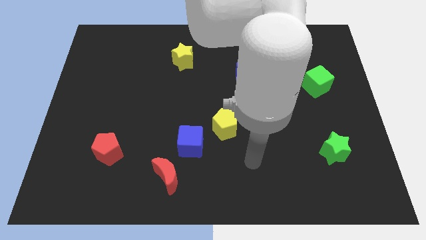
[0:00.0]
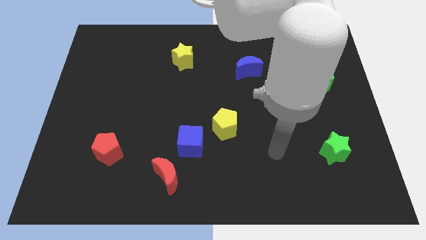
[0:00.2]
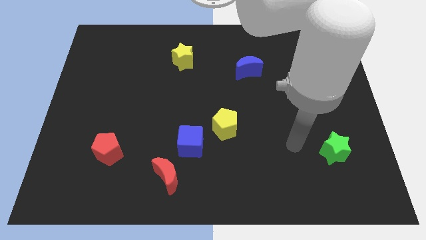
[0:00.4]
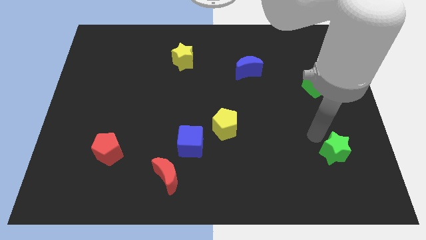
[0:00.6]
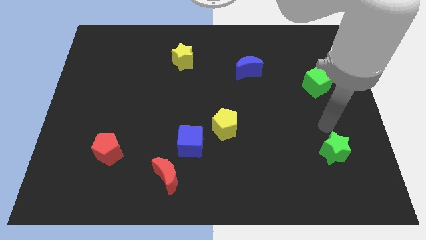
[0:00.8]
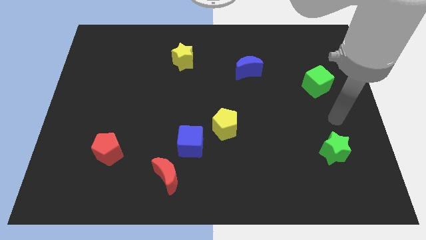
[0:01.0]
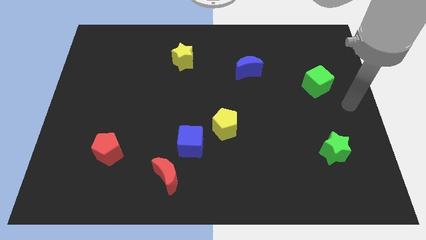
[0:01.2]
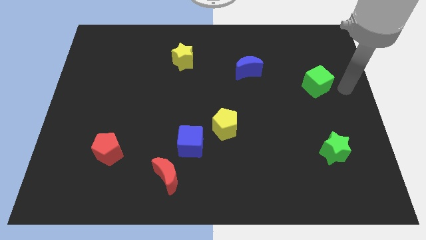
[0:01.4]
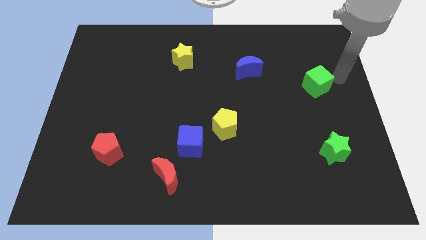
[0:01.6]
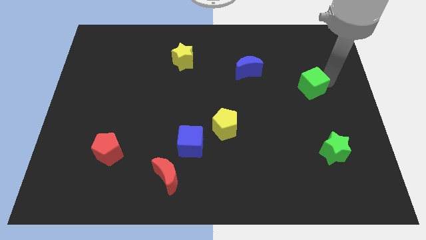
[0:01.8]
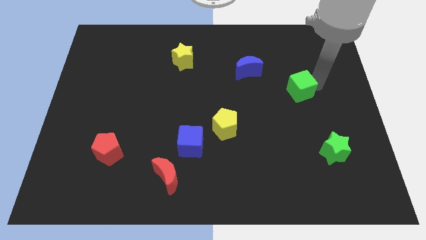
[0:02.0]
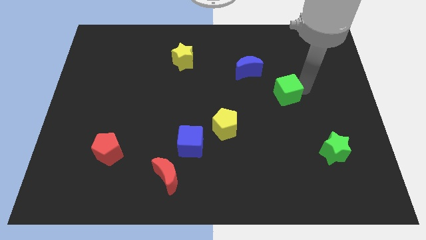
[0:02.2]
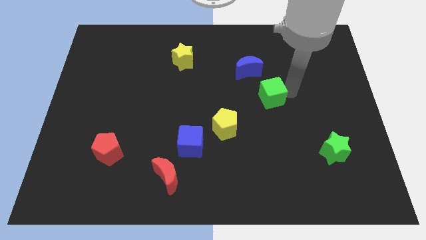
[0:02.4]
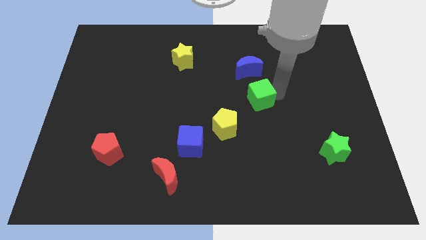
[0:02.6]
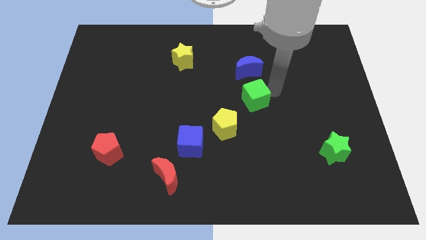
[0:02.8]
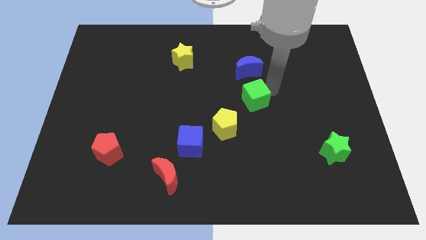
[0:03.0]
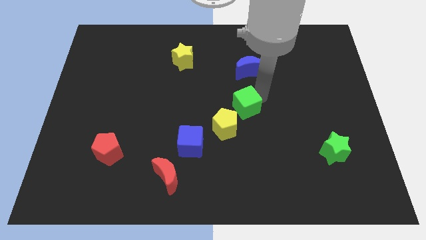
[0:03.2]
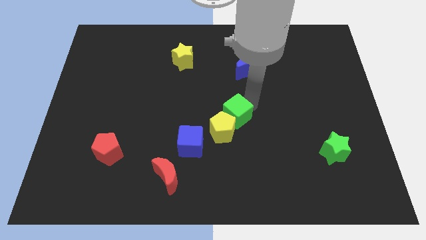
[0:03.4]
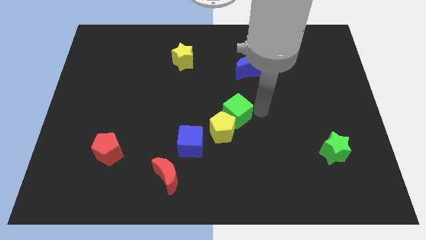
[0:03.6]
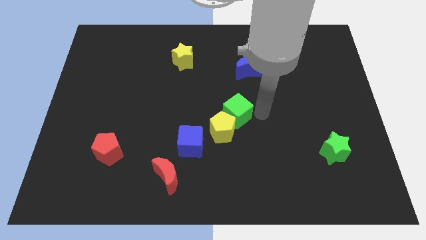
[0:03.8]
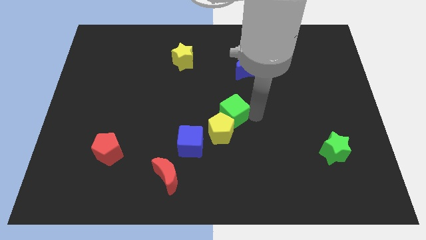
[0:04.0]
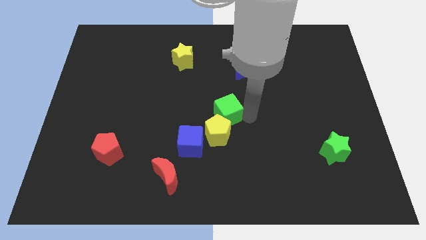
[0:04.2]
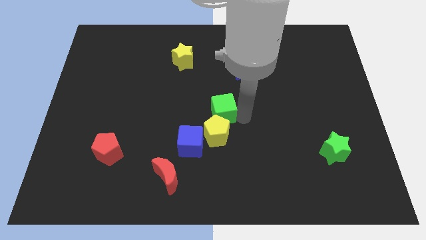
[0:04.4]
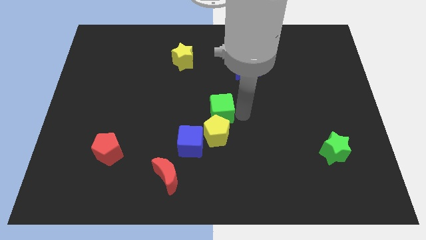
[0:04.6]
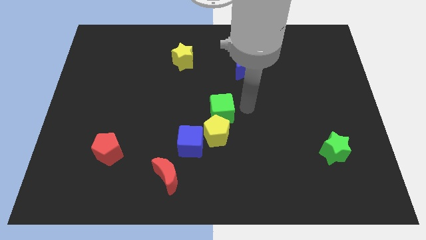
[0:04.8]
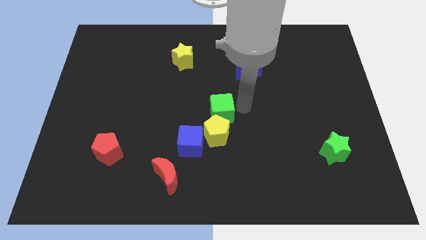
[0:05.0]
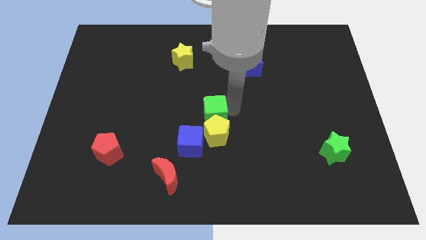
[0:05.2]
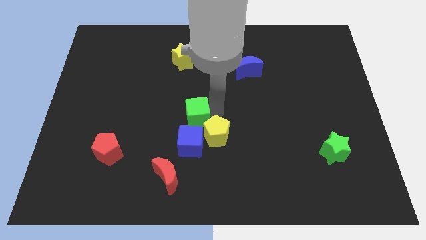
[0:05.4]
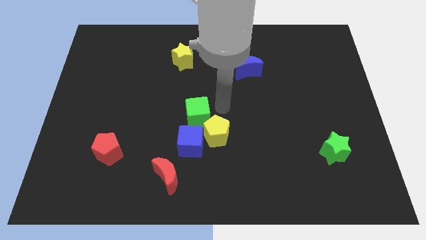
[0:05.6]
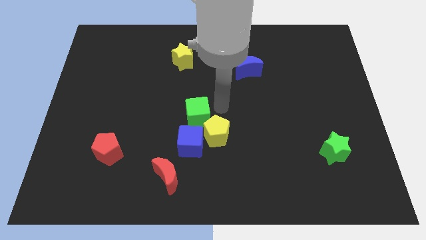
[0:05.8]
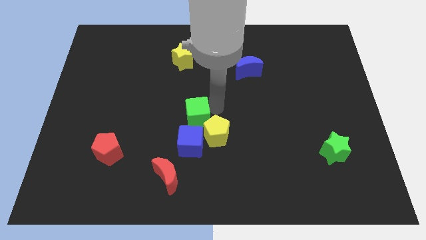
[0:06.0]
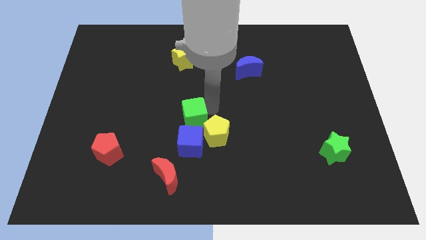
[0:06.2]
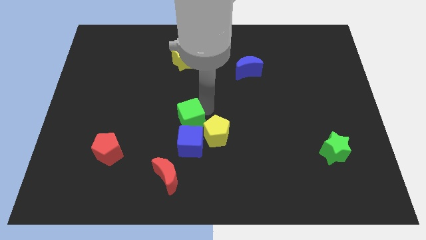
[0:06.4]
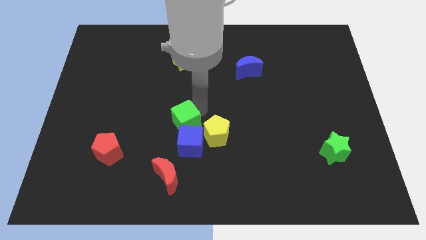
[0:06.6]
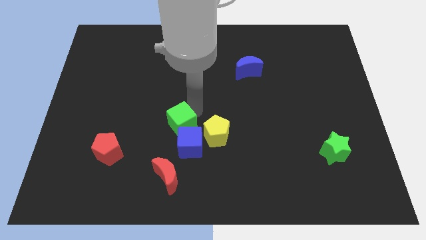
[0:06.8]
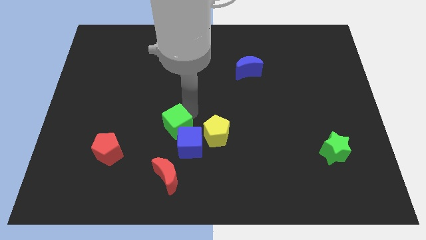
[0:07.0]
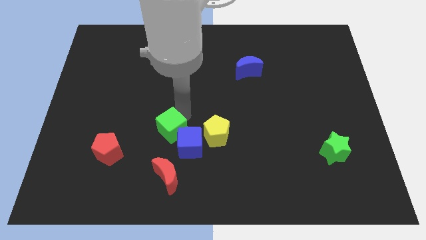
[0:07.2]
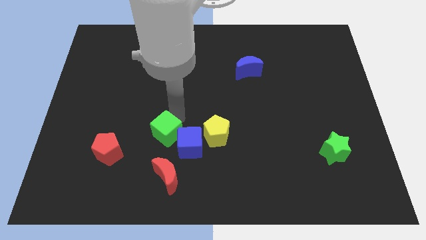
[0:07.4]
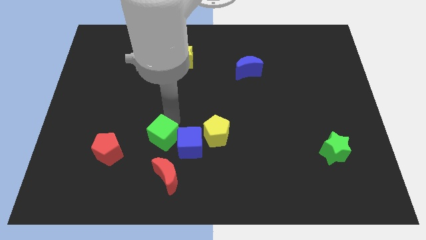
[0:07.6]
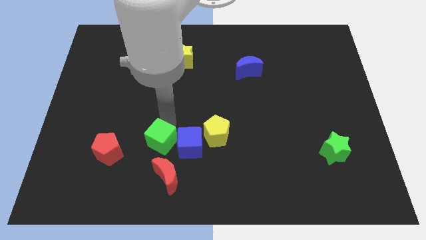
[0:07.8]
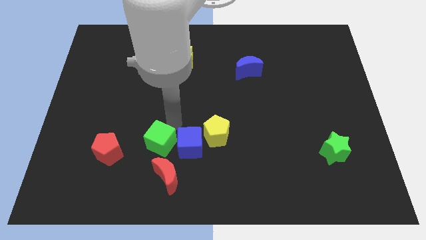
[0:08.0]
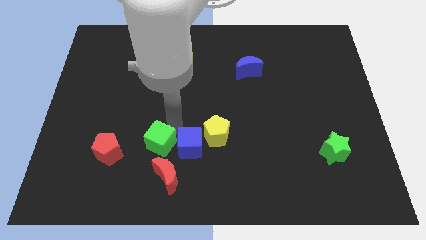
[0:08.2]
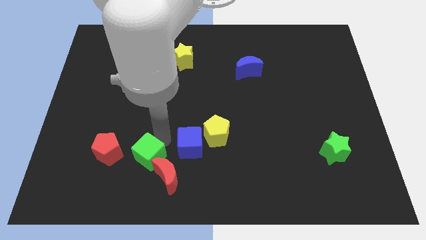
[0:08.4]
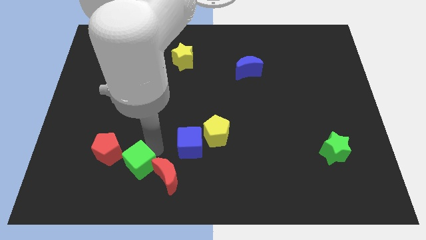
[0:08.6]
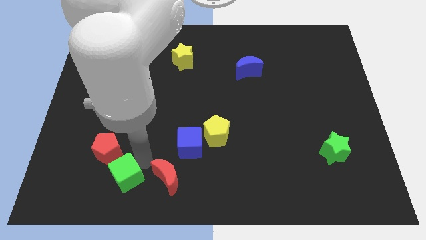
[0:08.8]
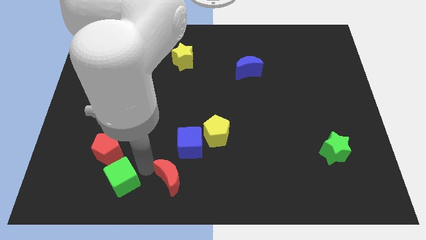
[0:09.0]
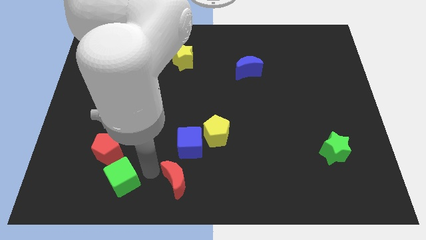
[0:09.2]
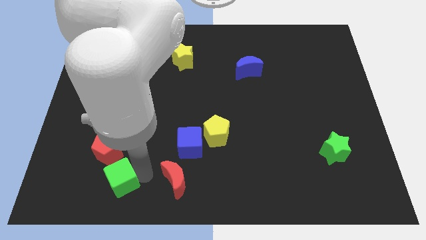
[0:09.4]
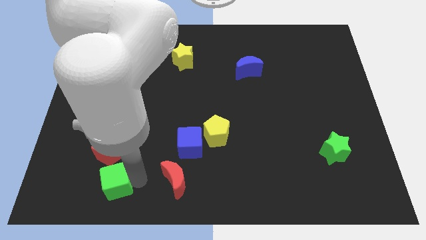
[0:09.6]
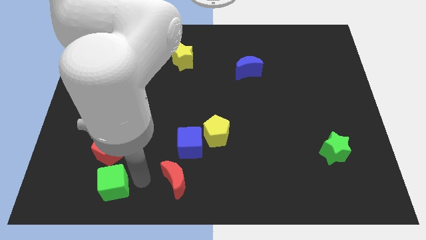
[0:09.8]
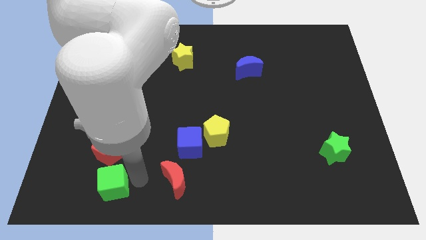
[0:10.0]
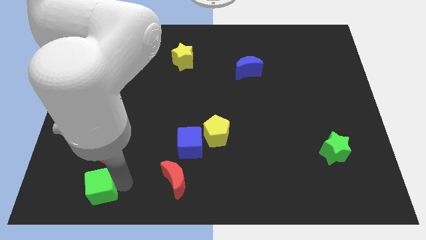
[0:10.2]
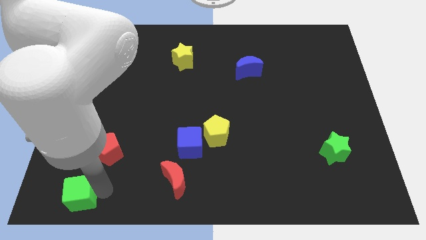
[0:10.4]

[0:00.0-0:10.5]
move the green cube to the lower left corner

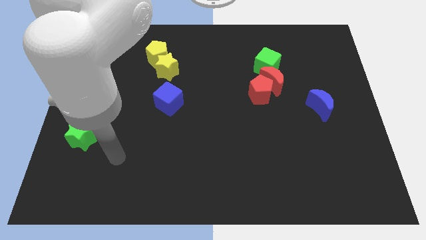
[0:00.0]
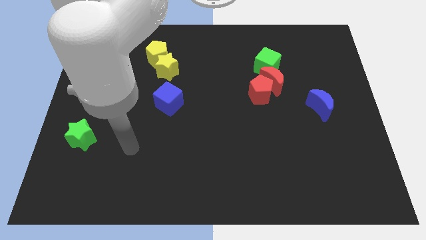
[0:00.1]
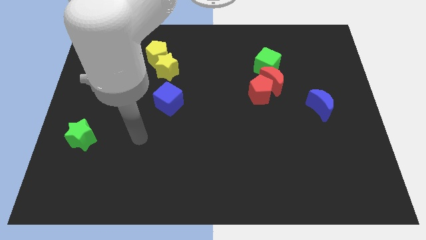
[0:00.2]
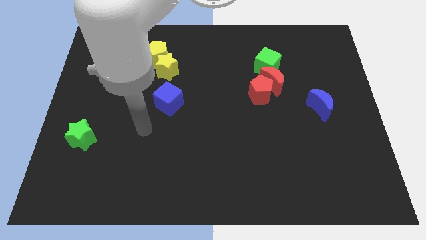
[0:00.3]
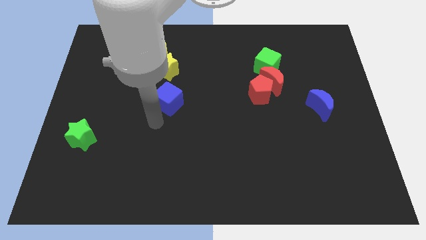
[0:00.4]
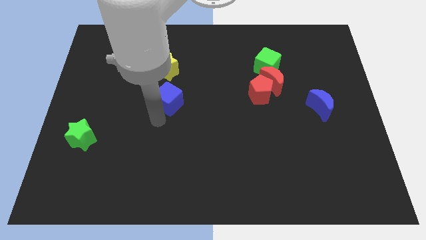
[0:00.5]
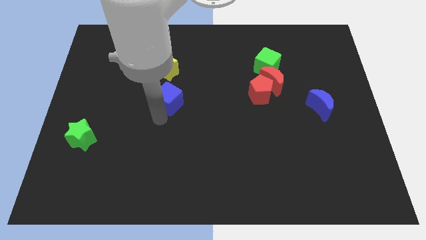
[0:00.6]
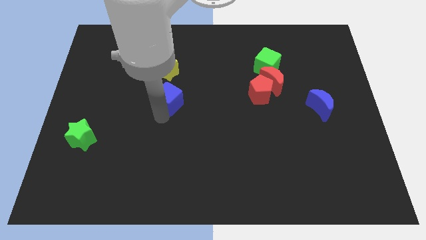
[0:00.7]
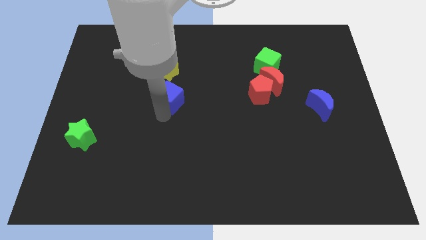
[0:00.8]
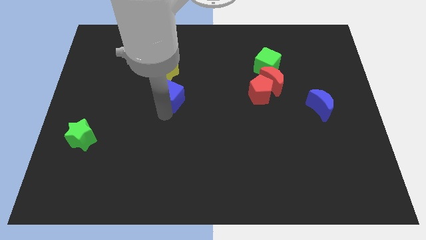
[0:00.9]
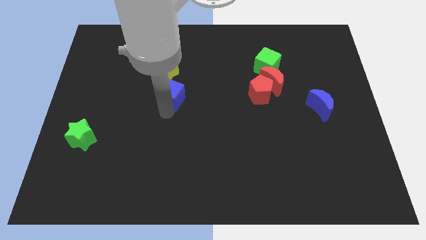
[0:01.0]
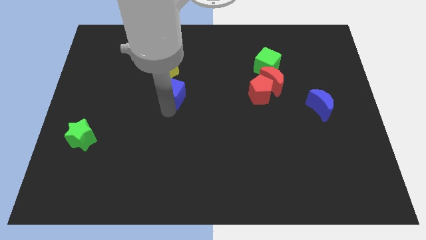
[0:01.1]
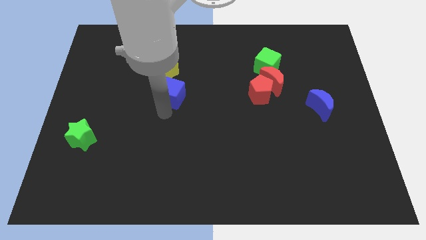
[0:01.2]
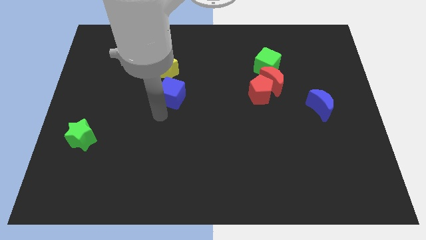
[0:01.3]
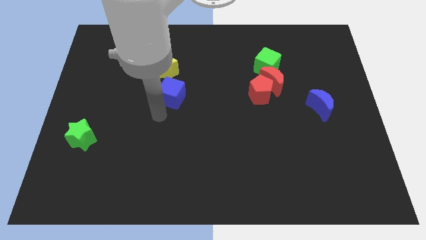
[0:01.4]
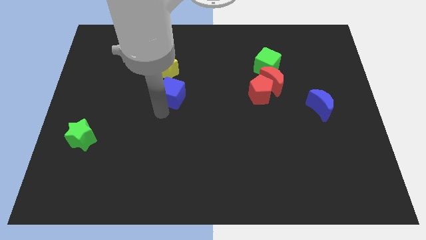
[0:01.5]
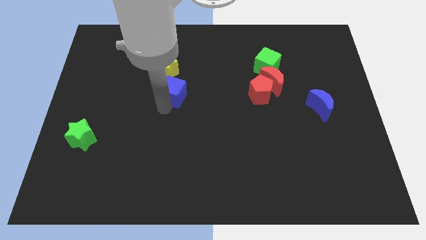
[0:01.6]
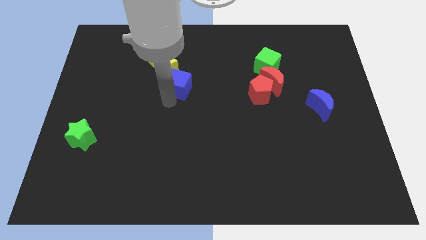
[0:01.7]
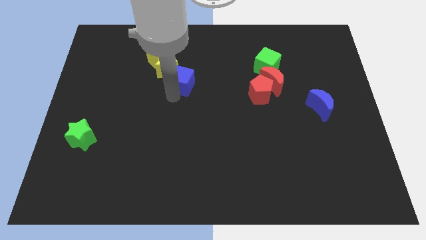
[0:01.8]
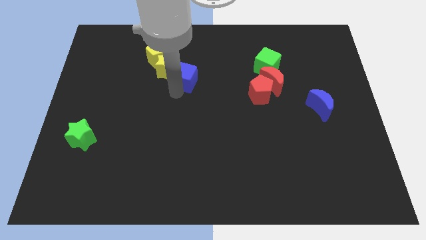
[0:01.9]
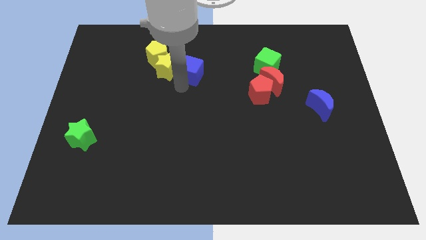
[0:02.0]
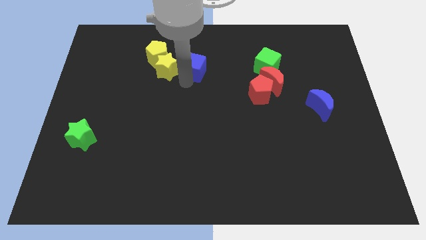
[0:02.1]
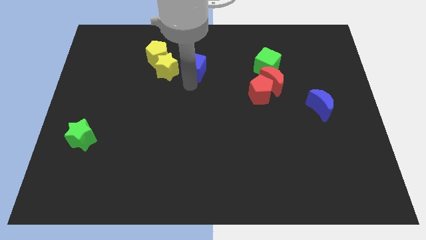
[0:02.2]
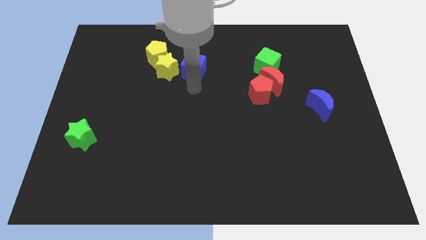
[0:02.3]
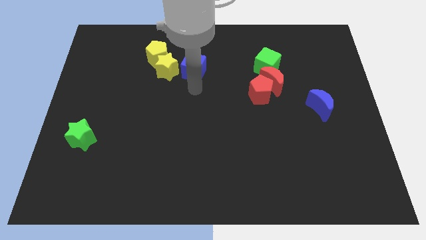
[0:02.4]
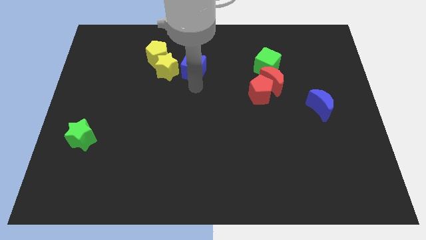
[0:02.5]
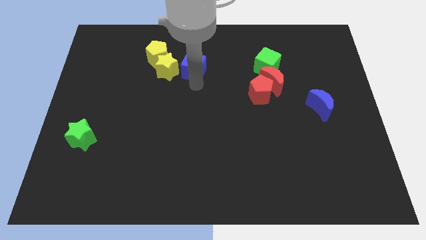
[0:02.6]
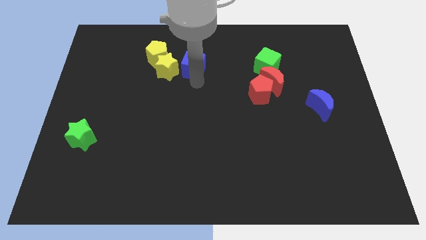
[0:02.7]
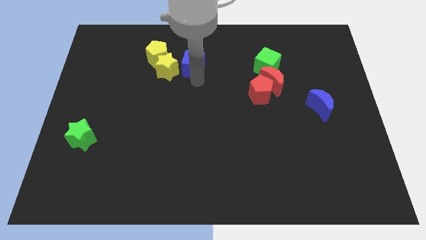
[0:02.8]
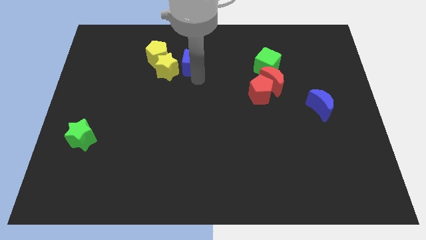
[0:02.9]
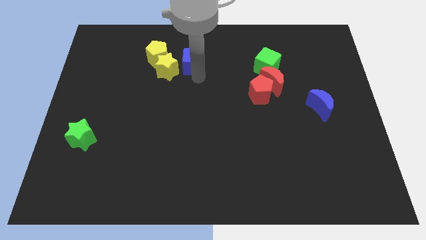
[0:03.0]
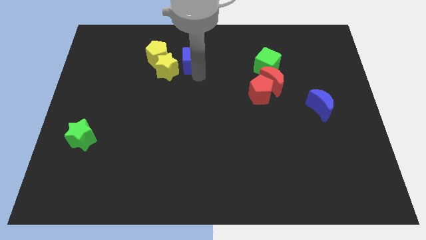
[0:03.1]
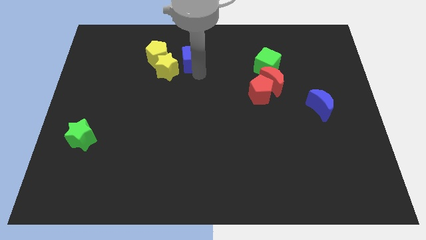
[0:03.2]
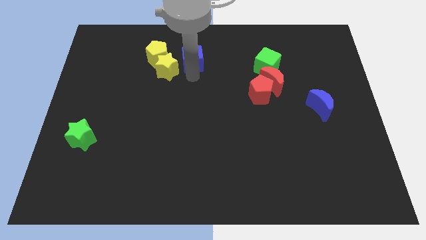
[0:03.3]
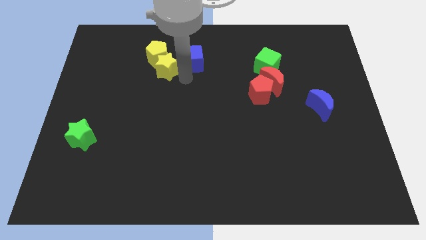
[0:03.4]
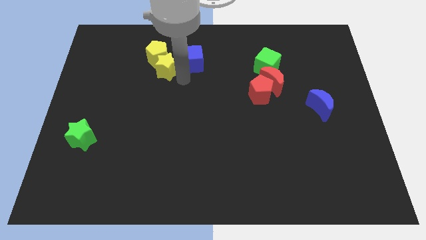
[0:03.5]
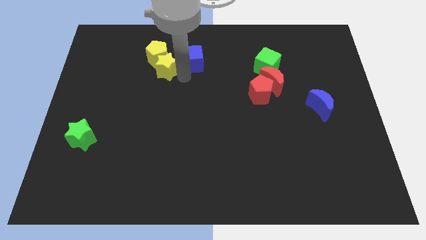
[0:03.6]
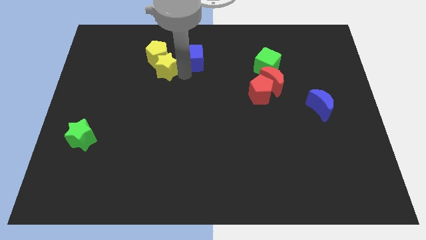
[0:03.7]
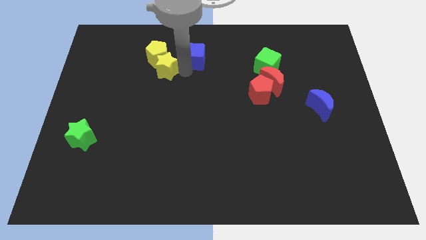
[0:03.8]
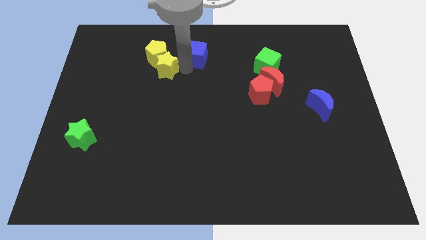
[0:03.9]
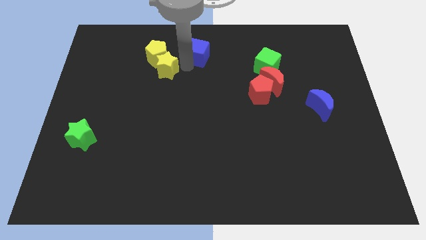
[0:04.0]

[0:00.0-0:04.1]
push the blue cube to the top side
